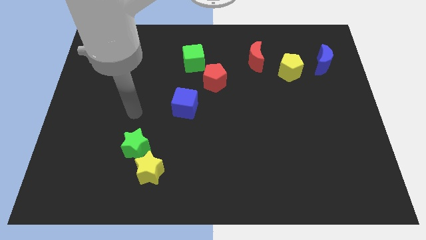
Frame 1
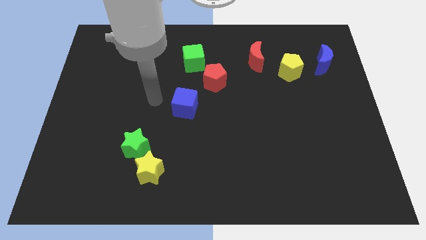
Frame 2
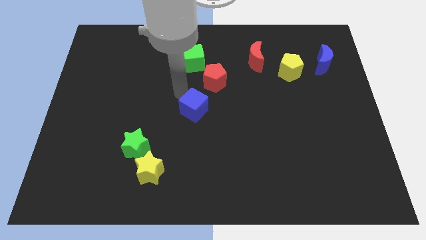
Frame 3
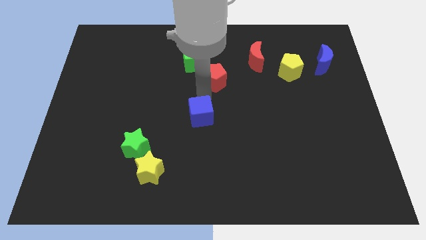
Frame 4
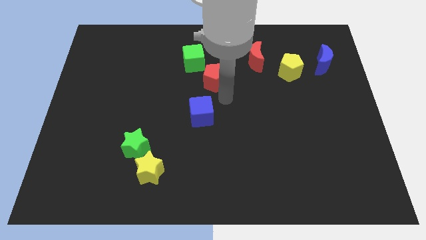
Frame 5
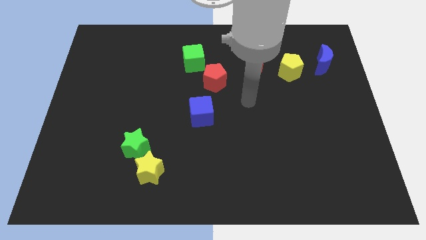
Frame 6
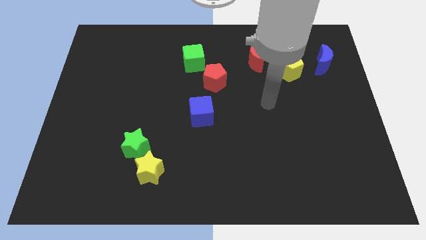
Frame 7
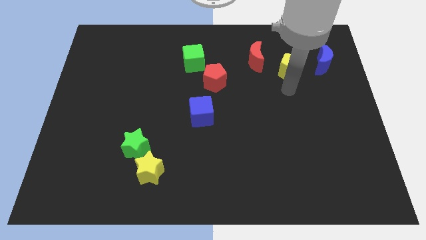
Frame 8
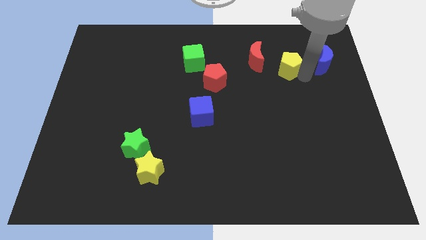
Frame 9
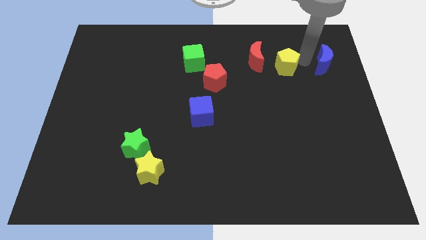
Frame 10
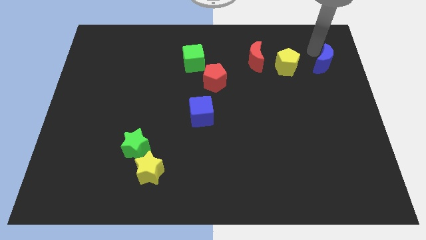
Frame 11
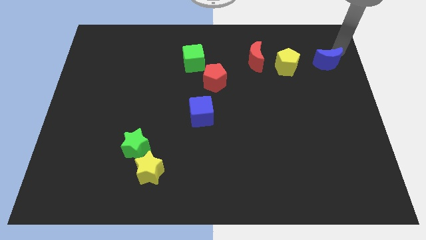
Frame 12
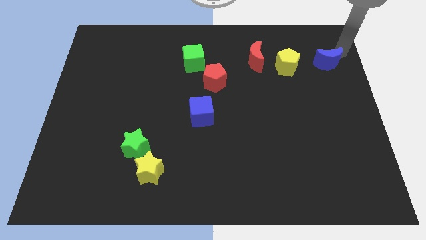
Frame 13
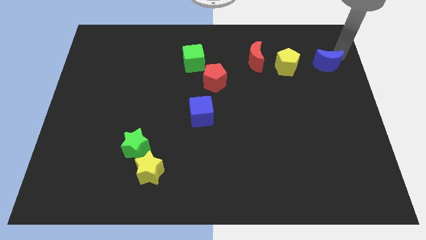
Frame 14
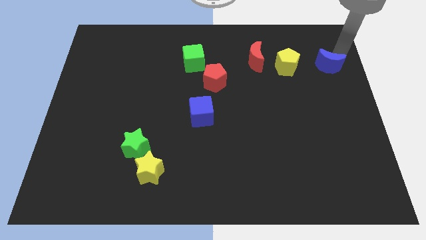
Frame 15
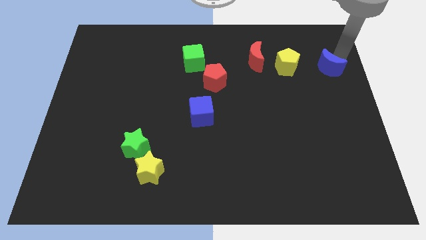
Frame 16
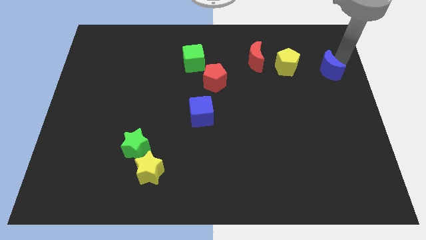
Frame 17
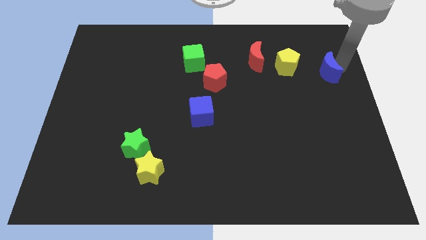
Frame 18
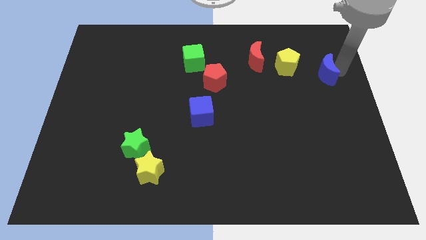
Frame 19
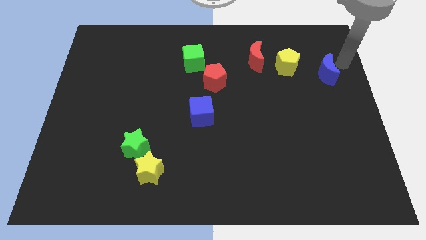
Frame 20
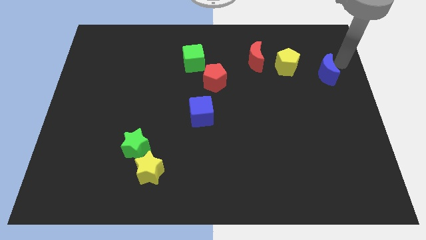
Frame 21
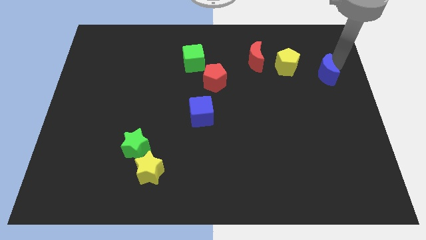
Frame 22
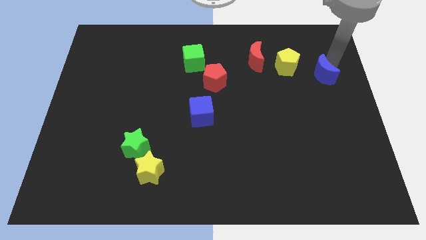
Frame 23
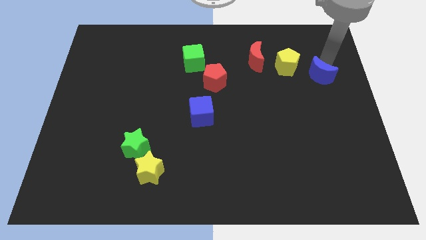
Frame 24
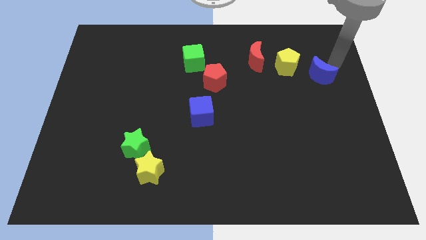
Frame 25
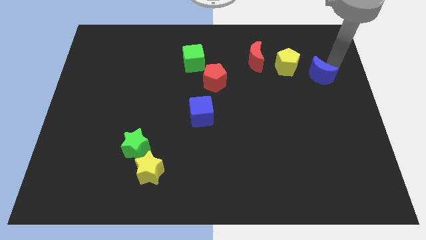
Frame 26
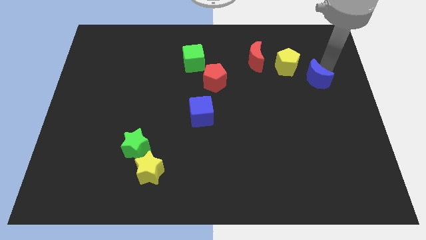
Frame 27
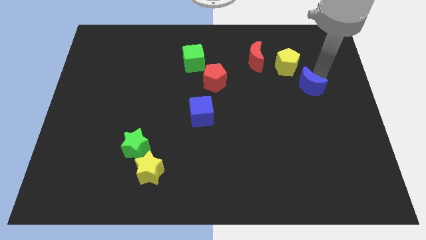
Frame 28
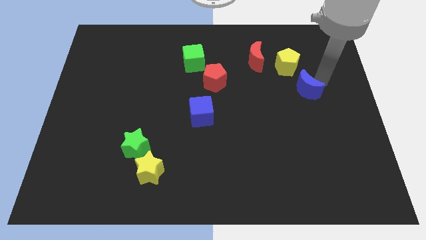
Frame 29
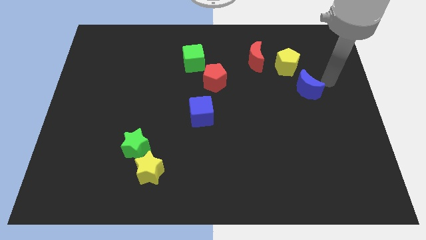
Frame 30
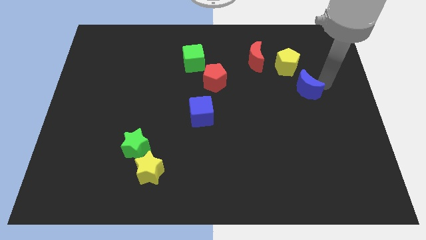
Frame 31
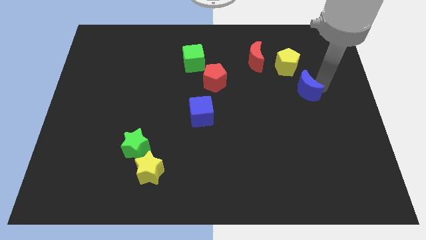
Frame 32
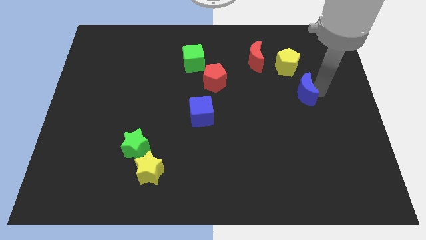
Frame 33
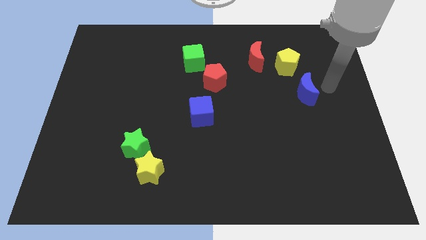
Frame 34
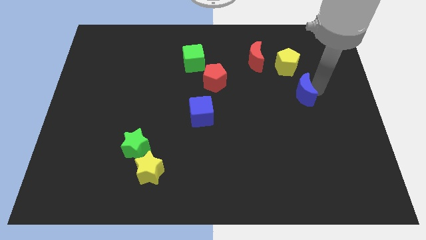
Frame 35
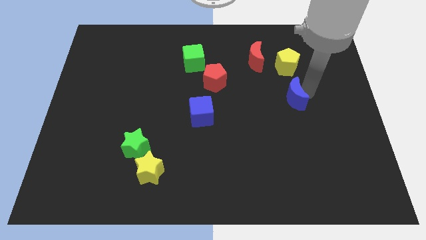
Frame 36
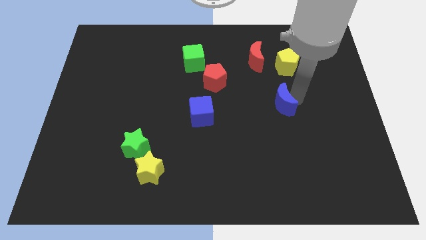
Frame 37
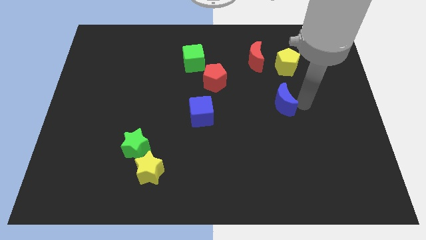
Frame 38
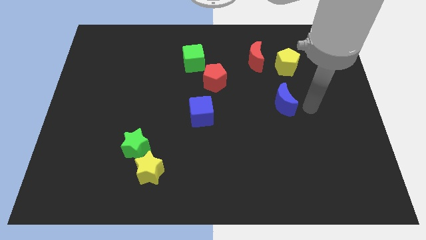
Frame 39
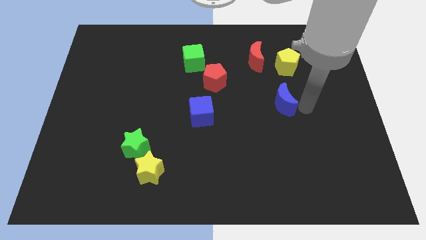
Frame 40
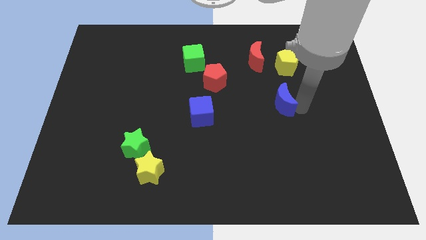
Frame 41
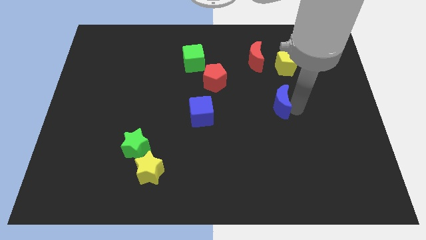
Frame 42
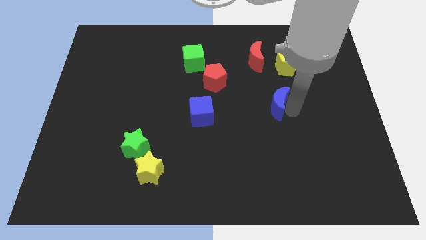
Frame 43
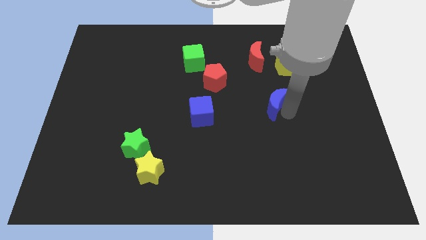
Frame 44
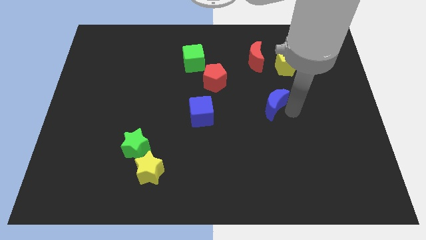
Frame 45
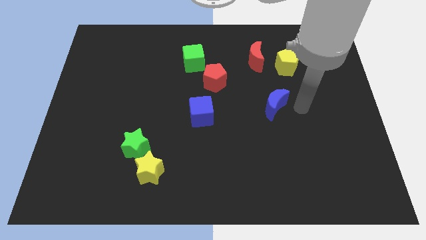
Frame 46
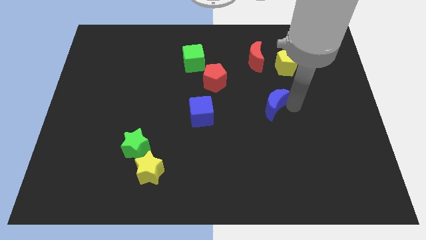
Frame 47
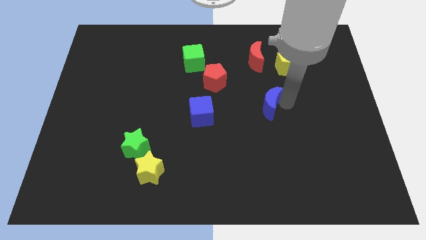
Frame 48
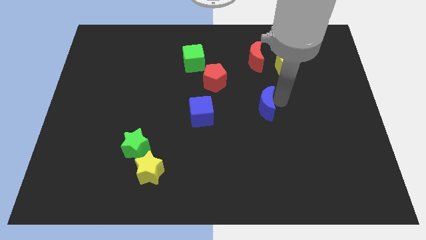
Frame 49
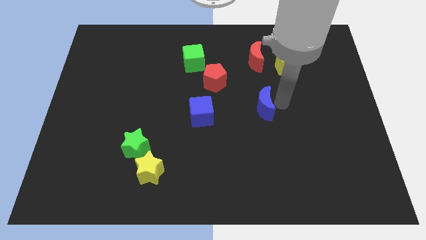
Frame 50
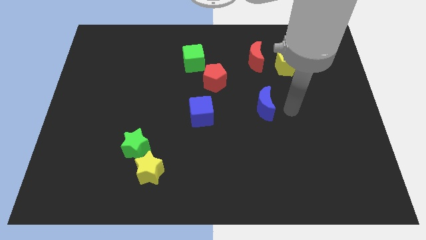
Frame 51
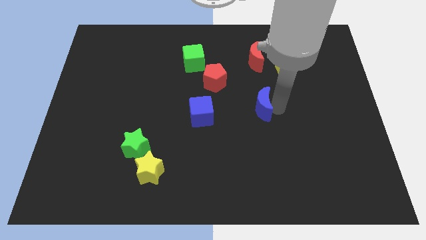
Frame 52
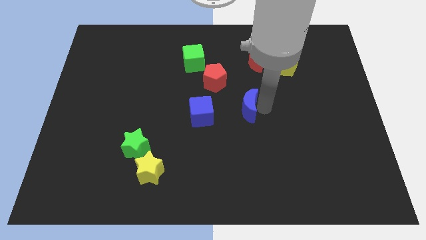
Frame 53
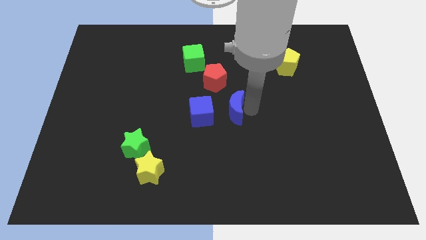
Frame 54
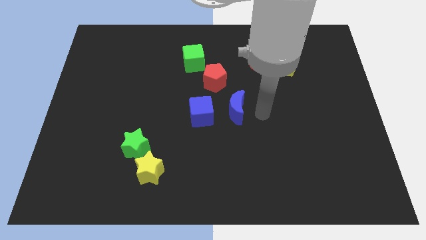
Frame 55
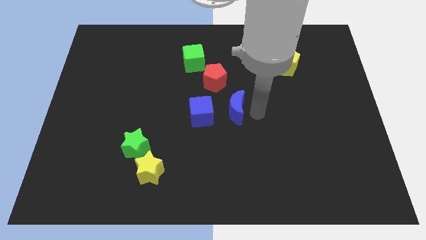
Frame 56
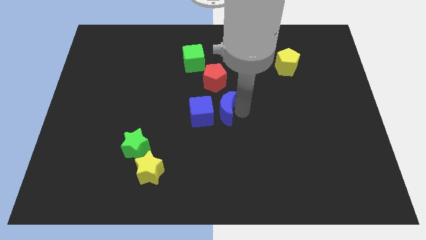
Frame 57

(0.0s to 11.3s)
slide the blue moon close to the blue cube
